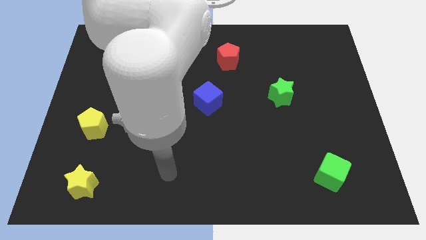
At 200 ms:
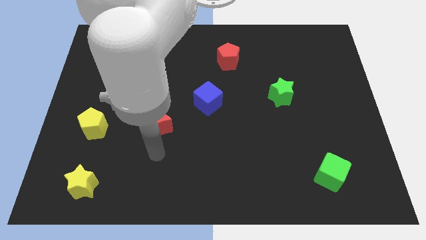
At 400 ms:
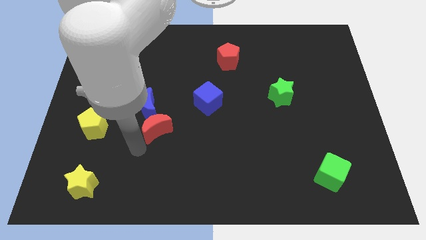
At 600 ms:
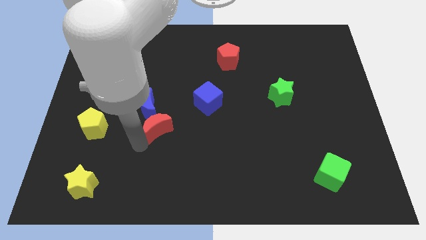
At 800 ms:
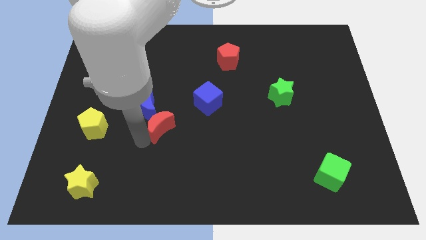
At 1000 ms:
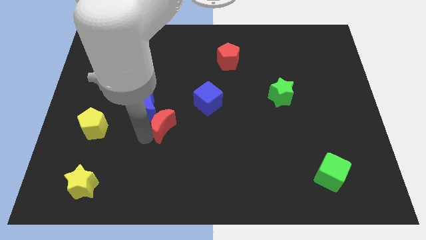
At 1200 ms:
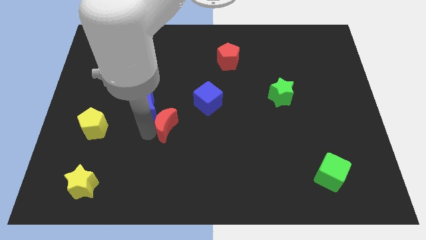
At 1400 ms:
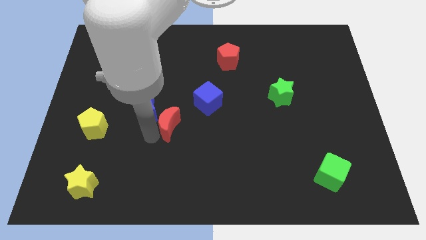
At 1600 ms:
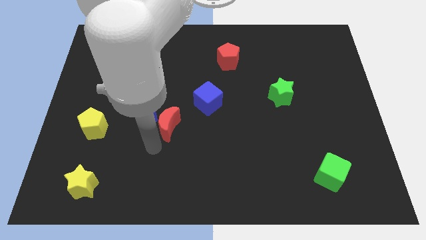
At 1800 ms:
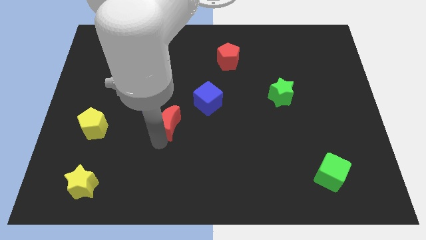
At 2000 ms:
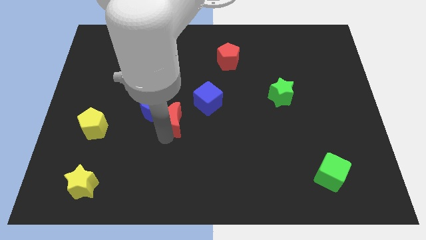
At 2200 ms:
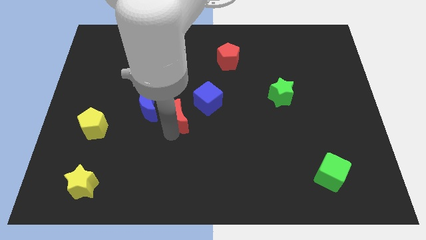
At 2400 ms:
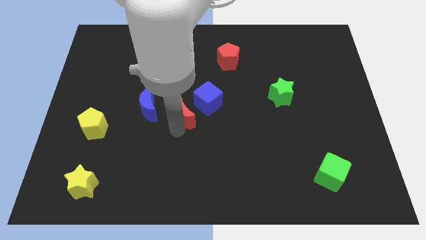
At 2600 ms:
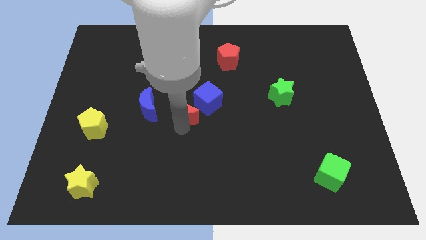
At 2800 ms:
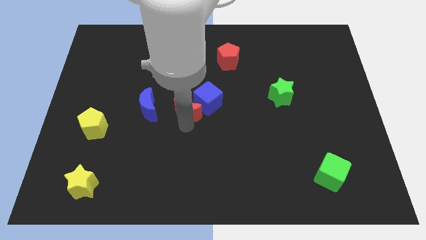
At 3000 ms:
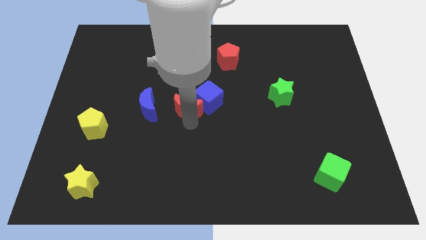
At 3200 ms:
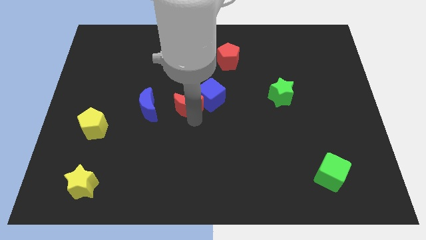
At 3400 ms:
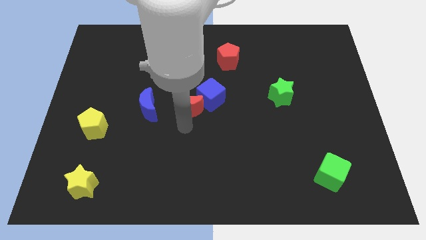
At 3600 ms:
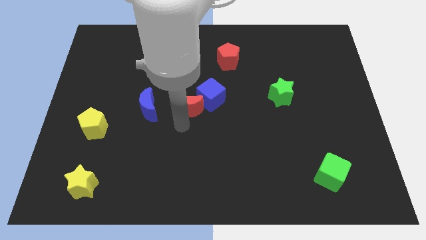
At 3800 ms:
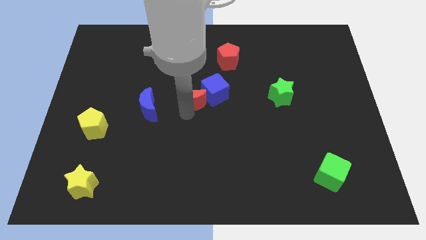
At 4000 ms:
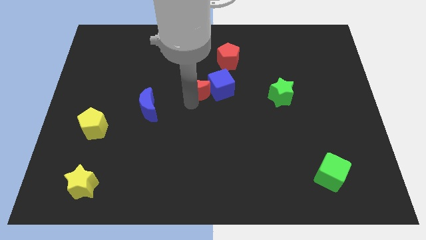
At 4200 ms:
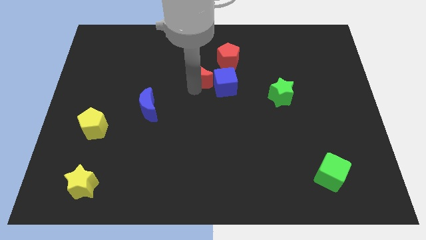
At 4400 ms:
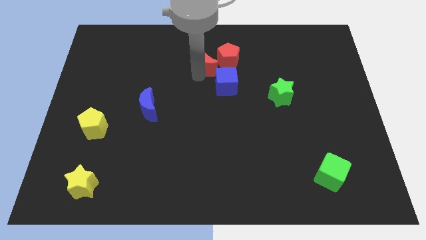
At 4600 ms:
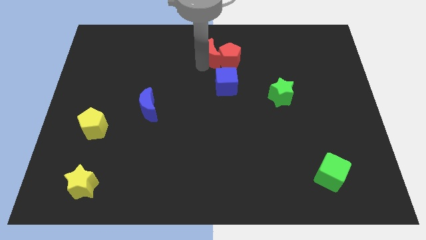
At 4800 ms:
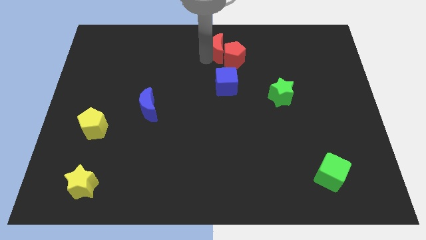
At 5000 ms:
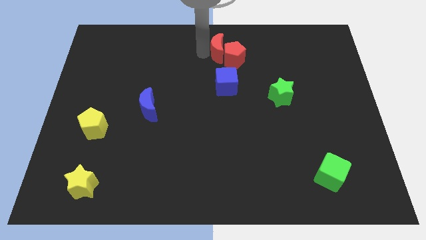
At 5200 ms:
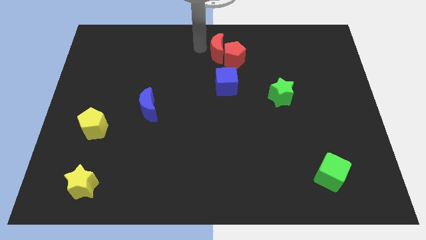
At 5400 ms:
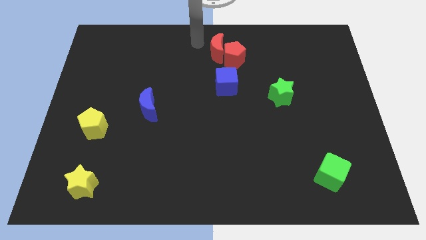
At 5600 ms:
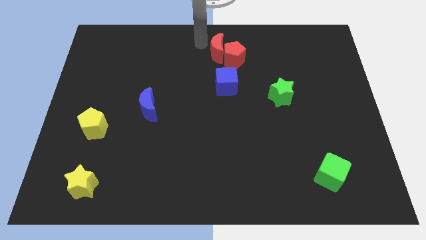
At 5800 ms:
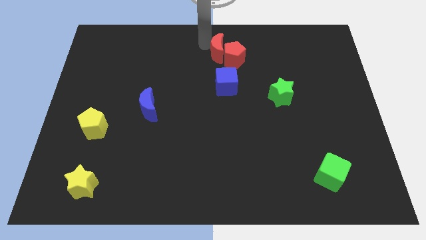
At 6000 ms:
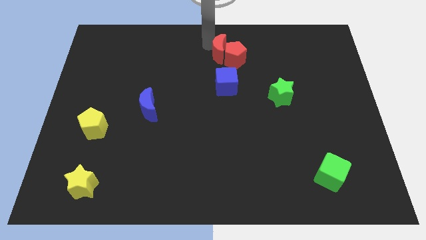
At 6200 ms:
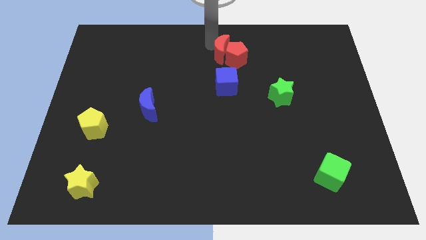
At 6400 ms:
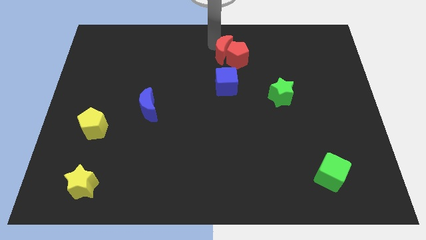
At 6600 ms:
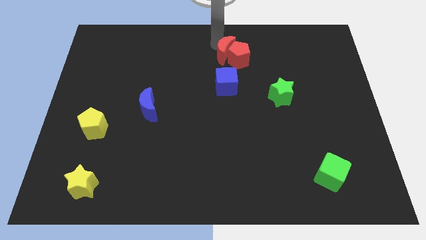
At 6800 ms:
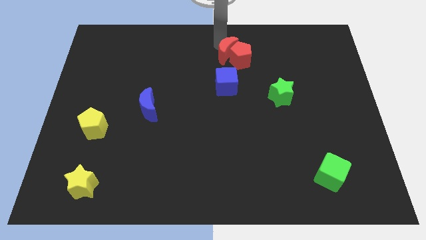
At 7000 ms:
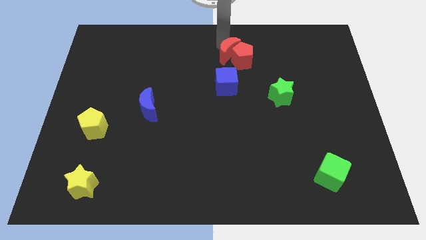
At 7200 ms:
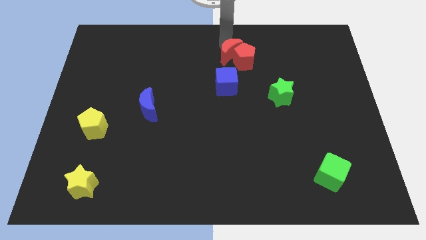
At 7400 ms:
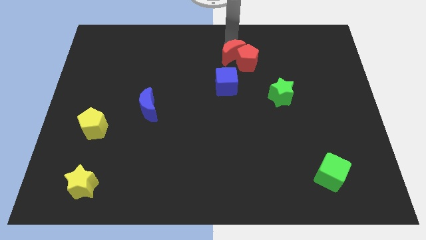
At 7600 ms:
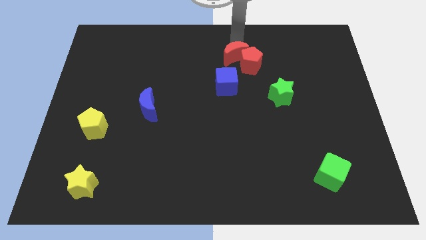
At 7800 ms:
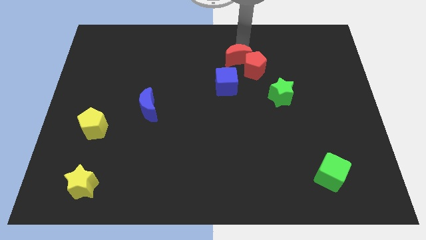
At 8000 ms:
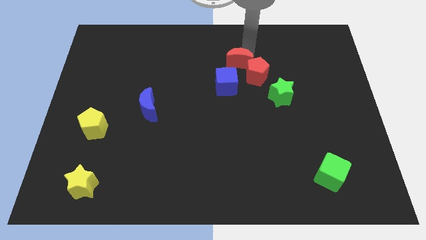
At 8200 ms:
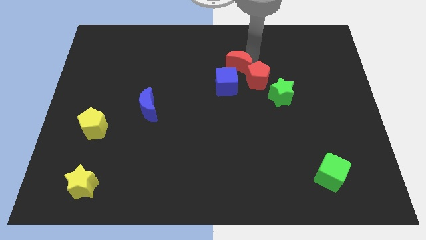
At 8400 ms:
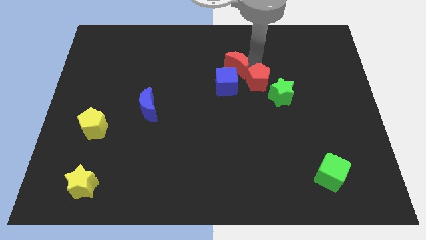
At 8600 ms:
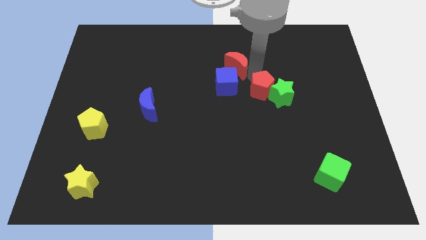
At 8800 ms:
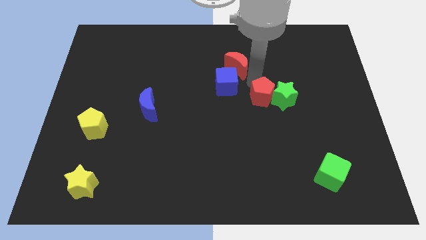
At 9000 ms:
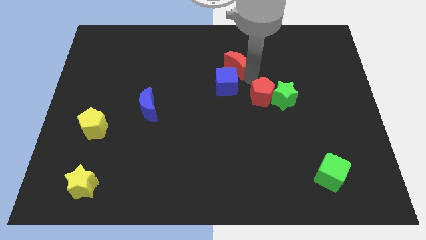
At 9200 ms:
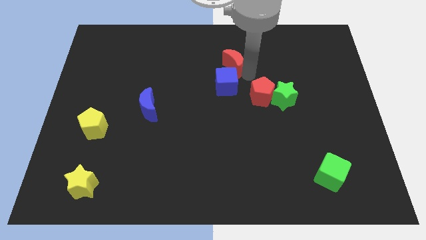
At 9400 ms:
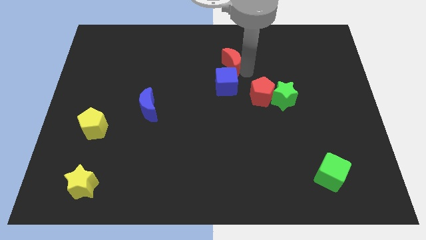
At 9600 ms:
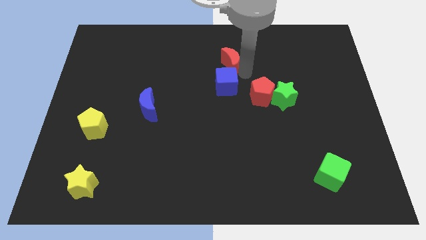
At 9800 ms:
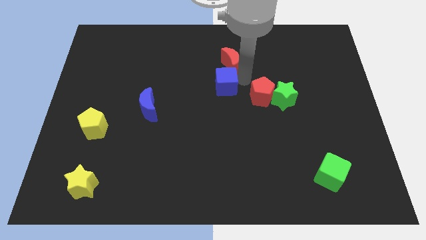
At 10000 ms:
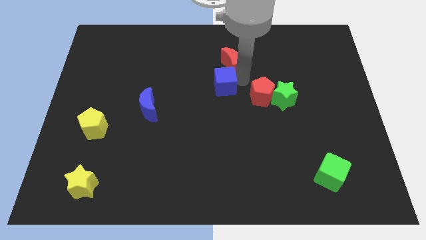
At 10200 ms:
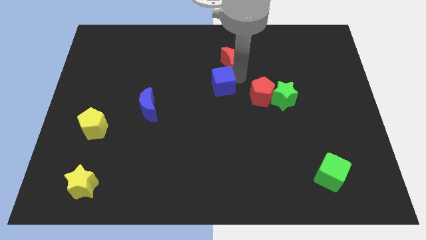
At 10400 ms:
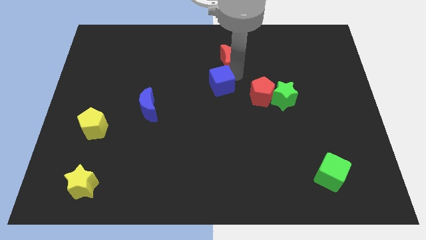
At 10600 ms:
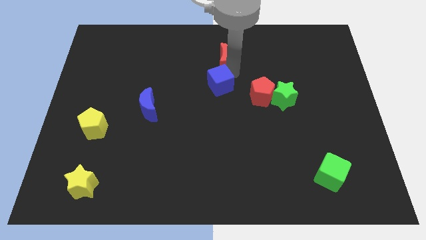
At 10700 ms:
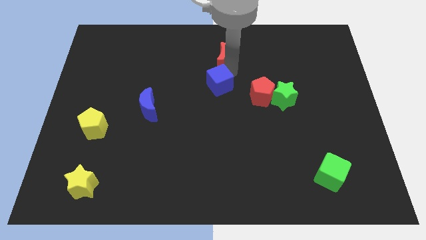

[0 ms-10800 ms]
push the red moon above the blue cube

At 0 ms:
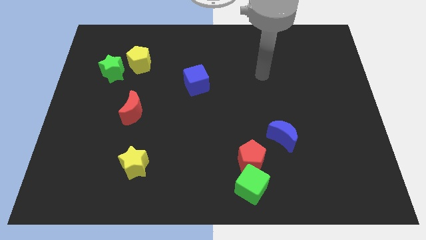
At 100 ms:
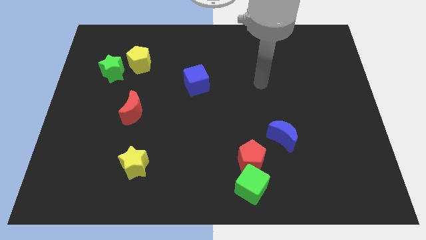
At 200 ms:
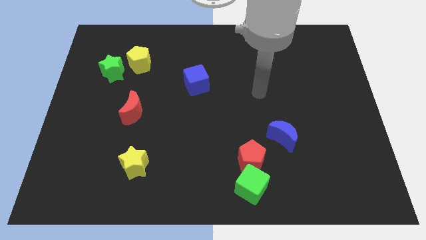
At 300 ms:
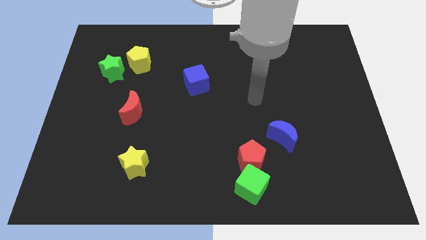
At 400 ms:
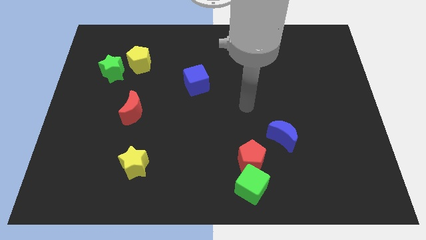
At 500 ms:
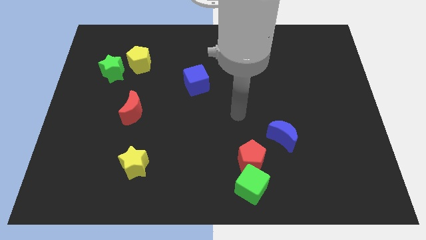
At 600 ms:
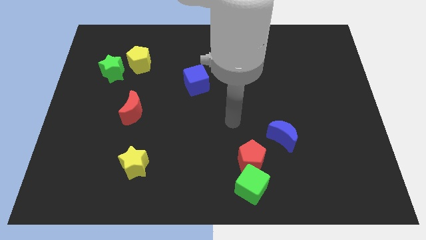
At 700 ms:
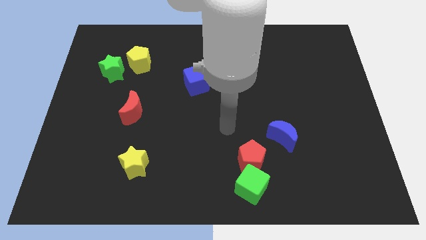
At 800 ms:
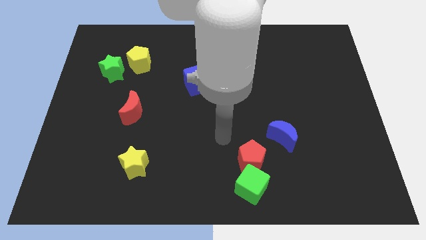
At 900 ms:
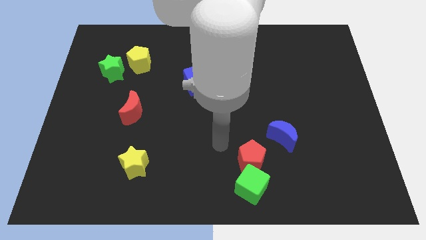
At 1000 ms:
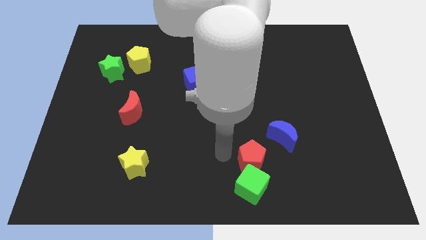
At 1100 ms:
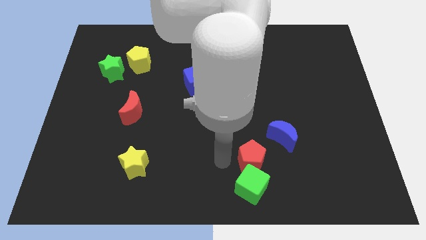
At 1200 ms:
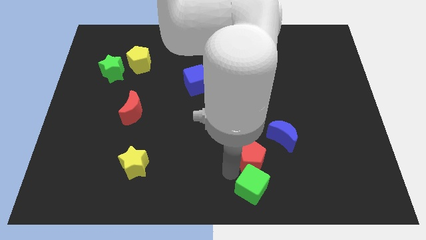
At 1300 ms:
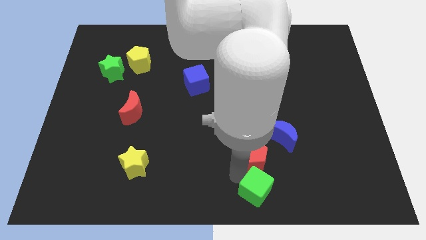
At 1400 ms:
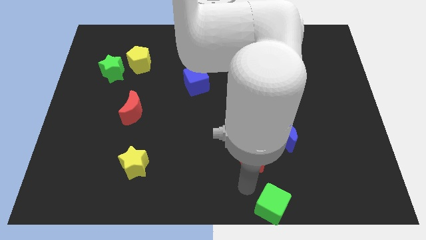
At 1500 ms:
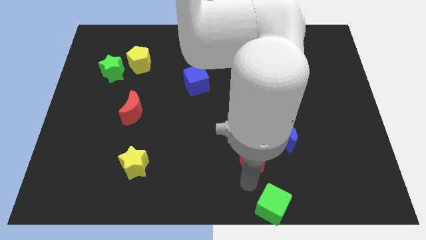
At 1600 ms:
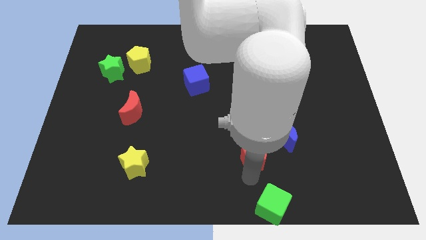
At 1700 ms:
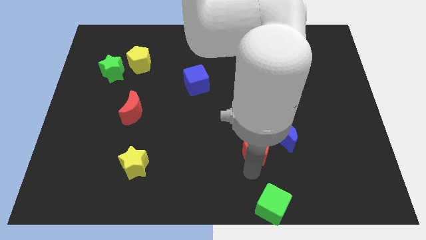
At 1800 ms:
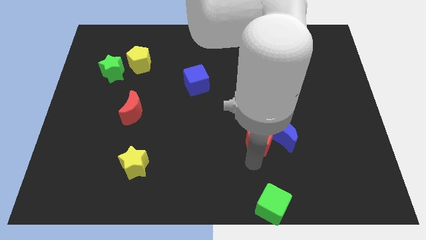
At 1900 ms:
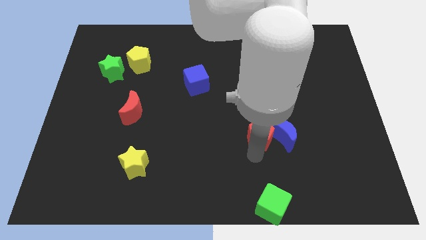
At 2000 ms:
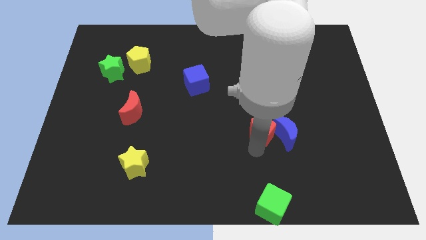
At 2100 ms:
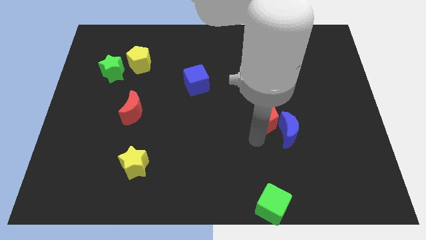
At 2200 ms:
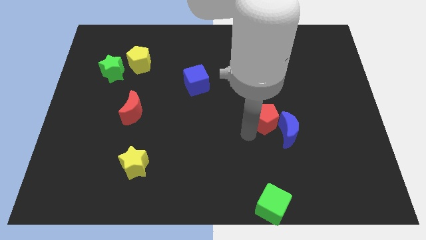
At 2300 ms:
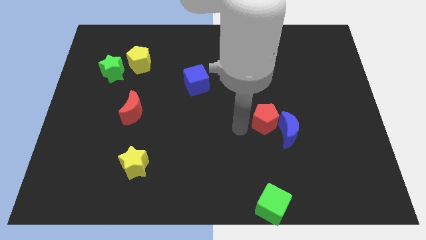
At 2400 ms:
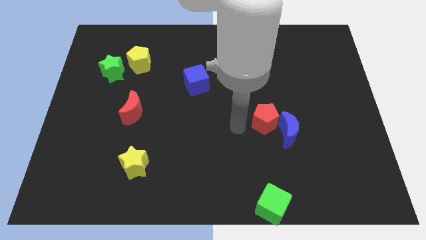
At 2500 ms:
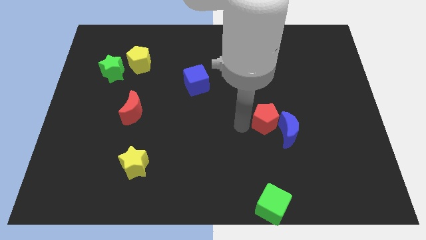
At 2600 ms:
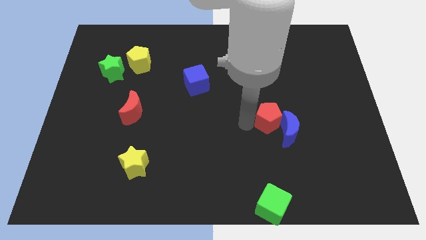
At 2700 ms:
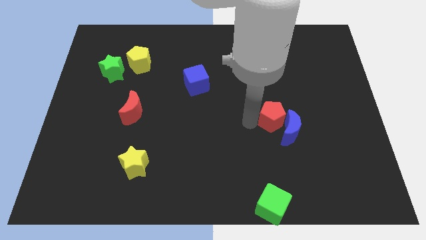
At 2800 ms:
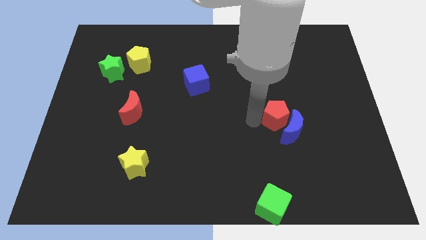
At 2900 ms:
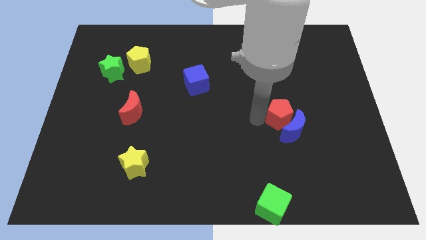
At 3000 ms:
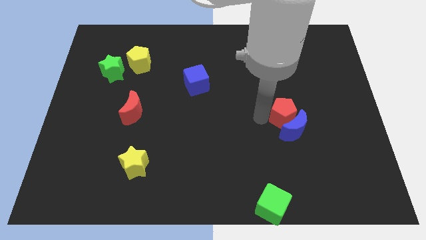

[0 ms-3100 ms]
move the red pentagon to the top right of the blue moon
